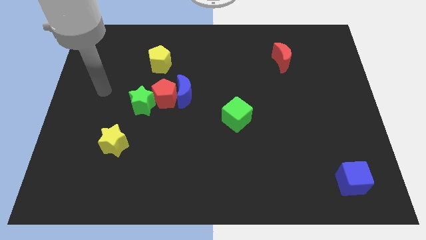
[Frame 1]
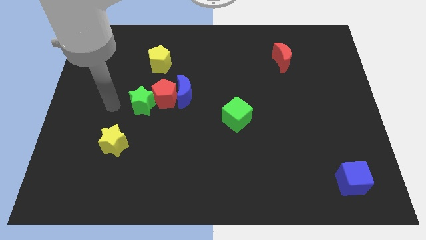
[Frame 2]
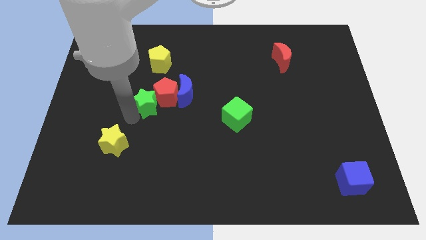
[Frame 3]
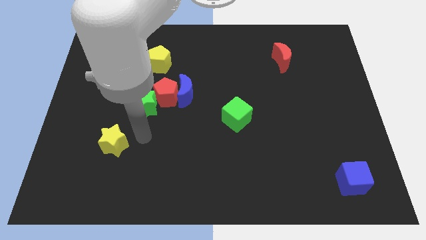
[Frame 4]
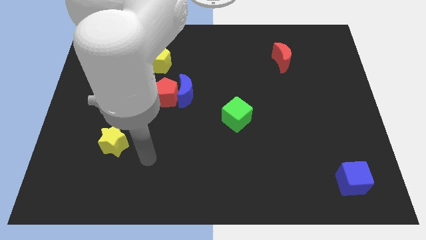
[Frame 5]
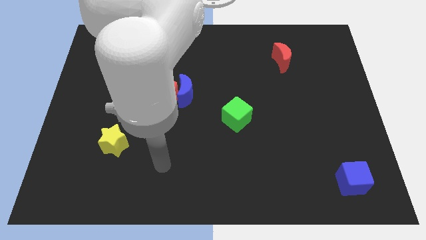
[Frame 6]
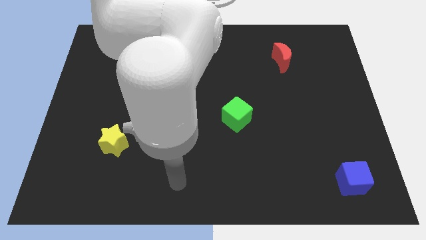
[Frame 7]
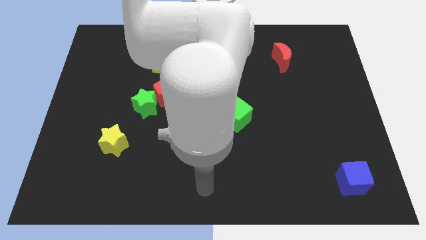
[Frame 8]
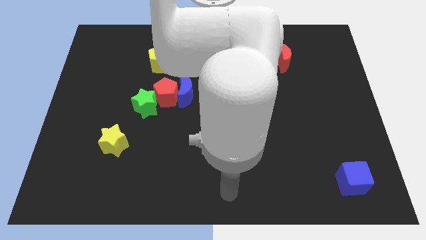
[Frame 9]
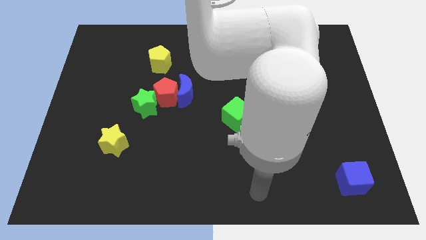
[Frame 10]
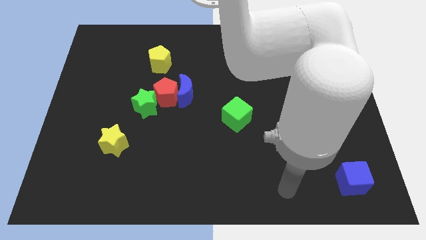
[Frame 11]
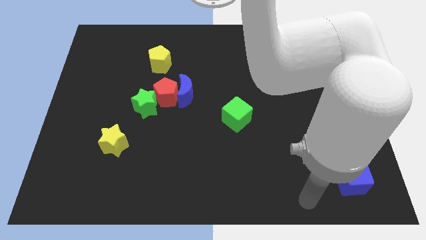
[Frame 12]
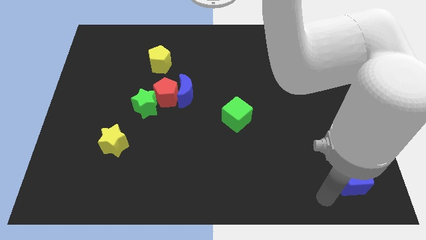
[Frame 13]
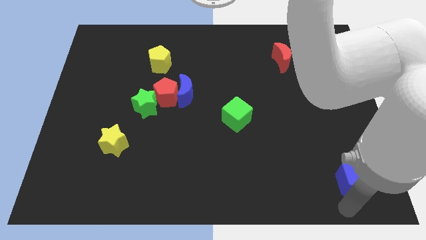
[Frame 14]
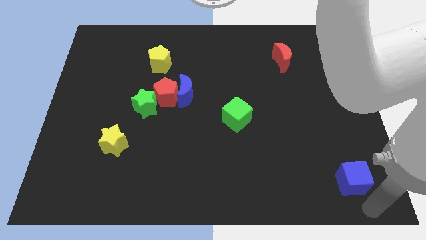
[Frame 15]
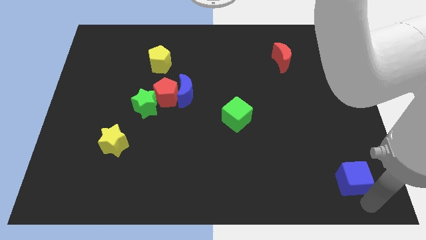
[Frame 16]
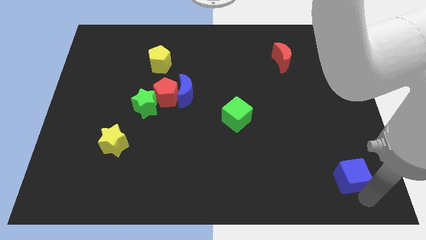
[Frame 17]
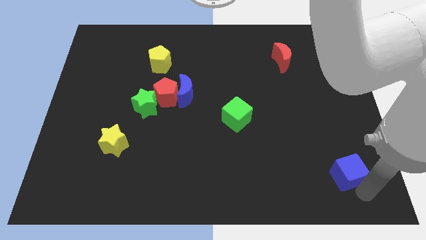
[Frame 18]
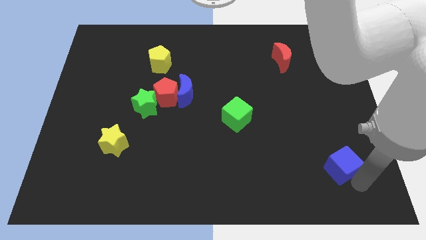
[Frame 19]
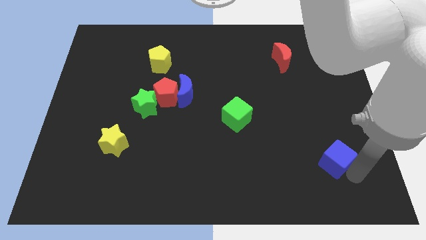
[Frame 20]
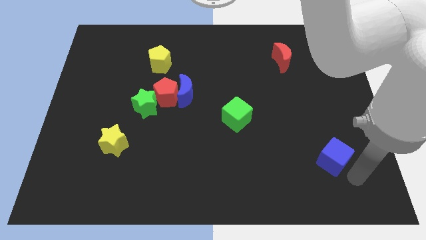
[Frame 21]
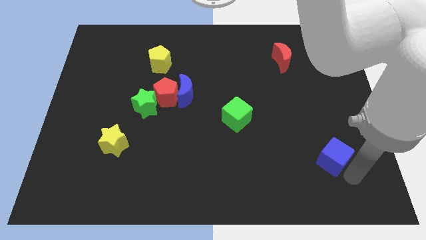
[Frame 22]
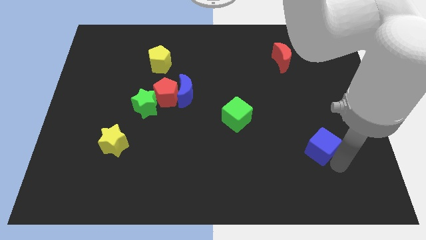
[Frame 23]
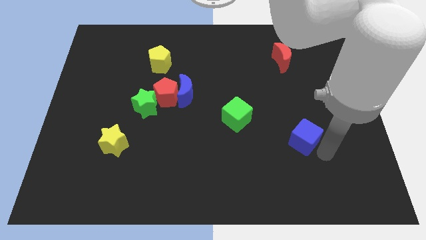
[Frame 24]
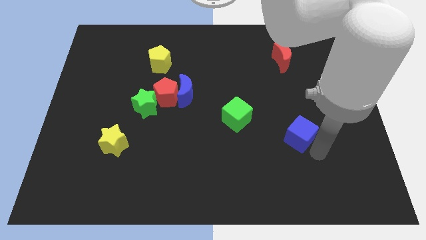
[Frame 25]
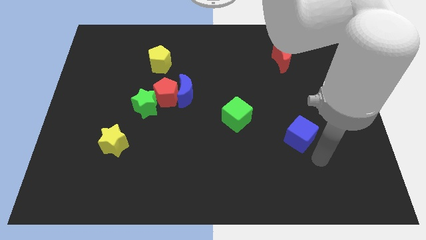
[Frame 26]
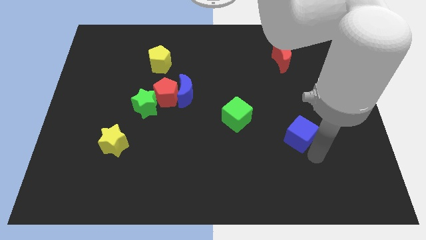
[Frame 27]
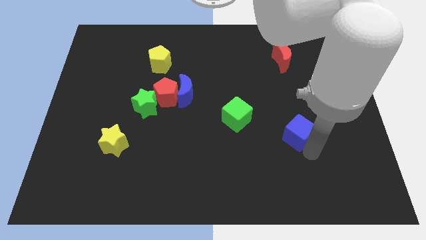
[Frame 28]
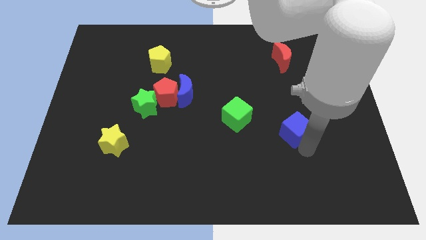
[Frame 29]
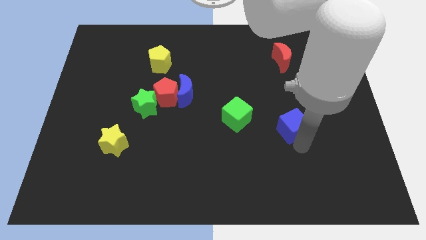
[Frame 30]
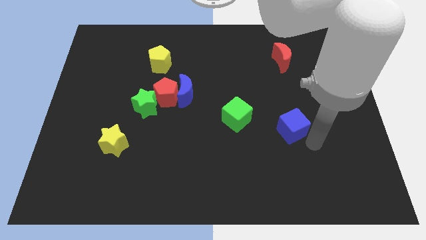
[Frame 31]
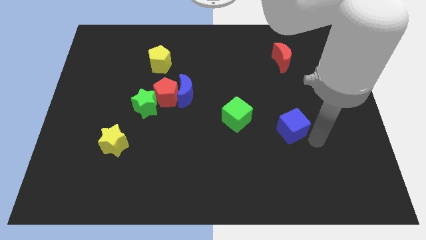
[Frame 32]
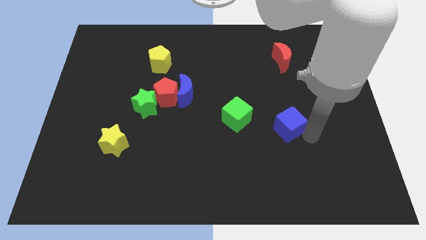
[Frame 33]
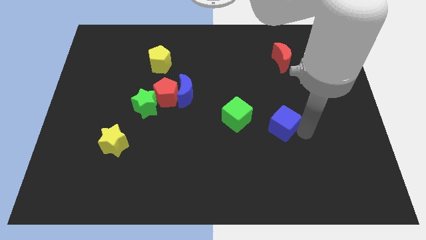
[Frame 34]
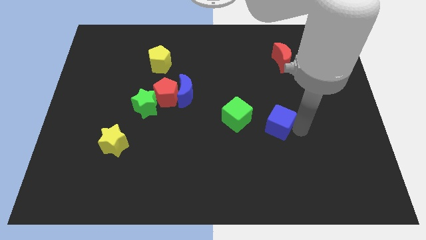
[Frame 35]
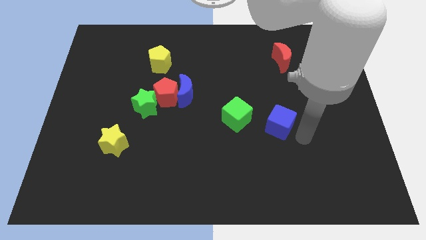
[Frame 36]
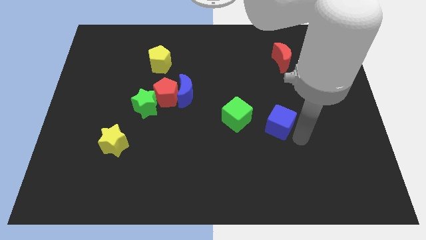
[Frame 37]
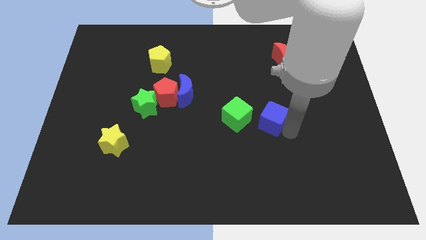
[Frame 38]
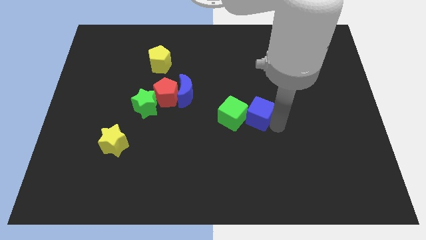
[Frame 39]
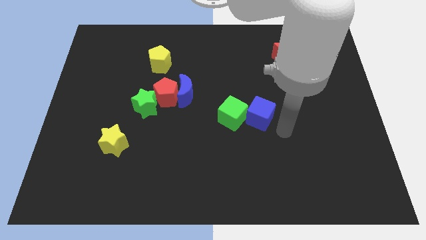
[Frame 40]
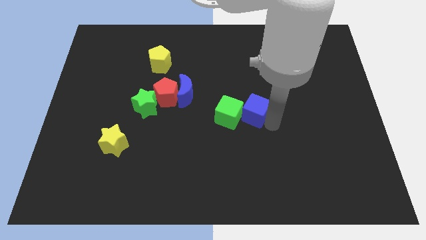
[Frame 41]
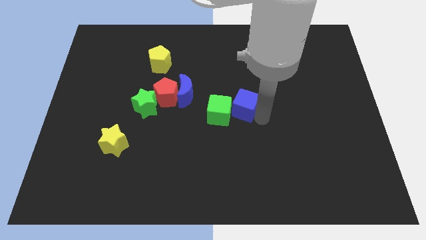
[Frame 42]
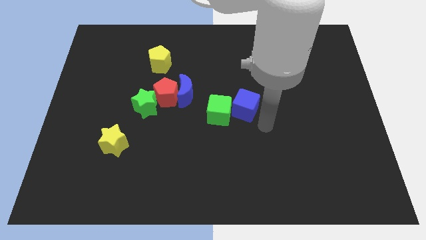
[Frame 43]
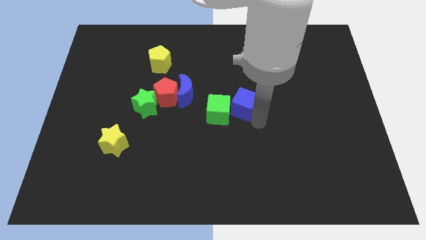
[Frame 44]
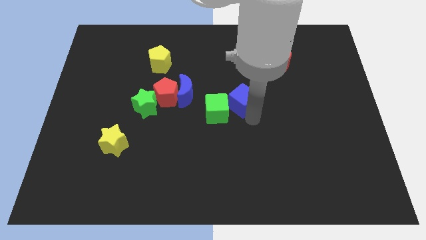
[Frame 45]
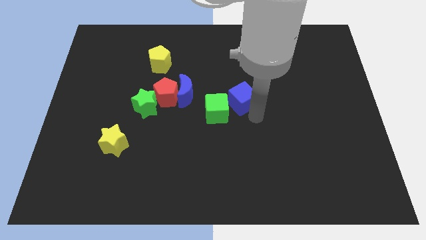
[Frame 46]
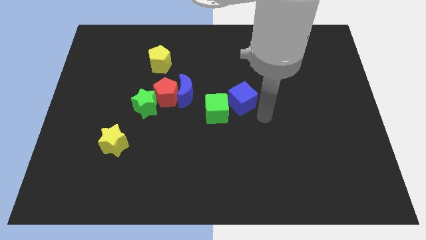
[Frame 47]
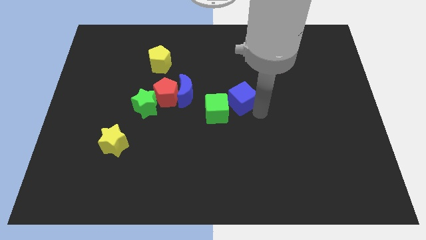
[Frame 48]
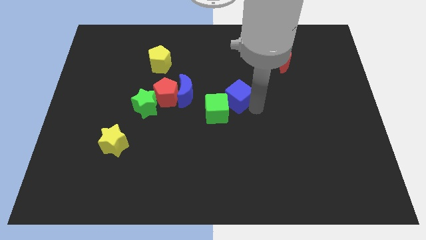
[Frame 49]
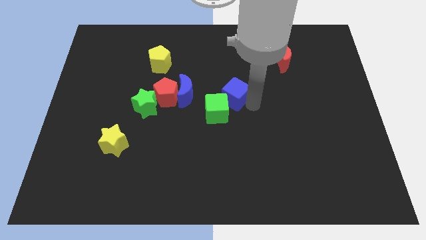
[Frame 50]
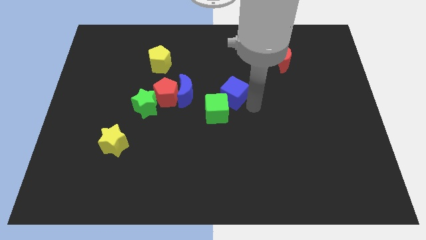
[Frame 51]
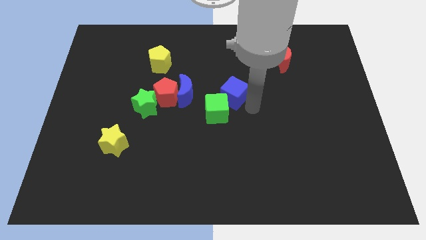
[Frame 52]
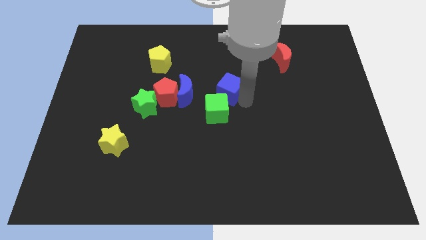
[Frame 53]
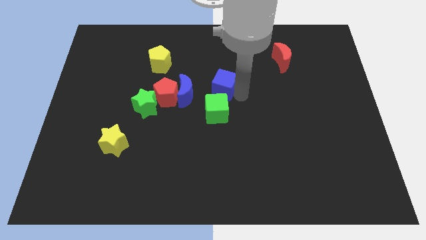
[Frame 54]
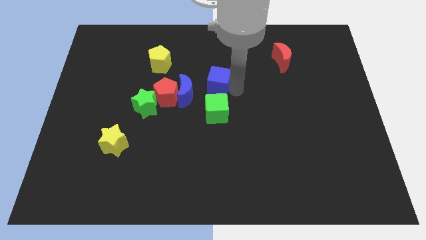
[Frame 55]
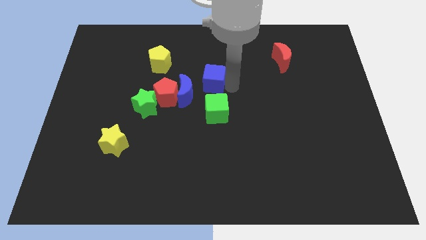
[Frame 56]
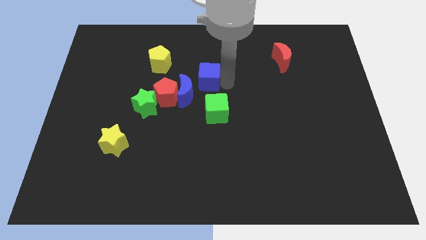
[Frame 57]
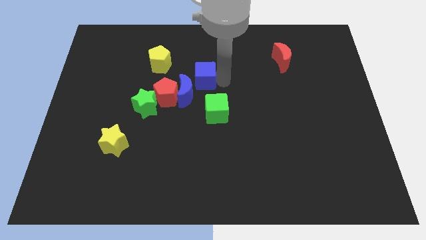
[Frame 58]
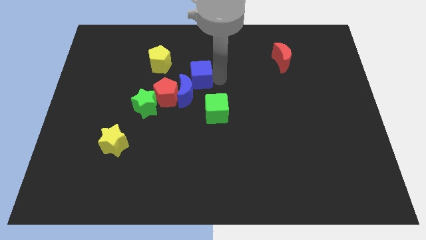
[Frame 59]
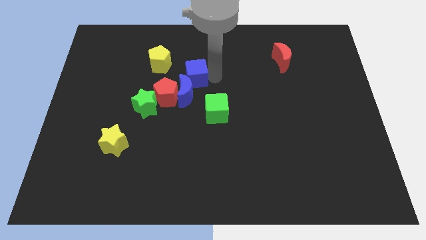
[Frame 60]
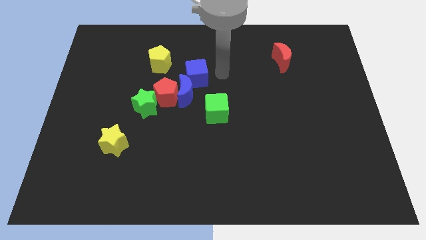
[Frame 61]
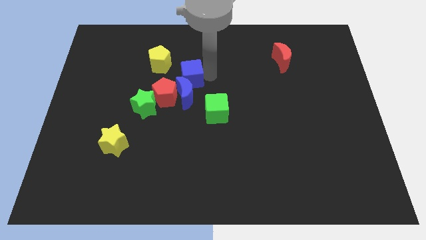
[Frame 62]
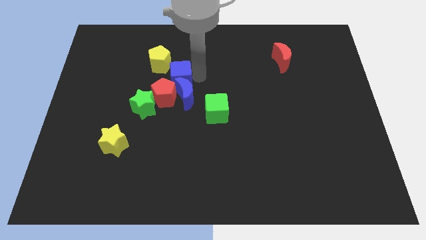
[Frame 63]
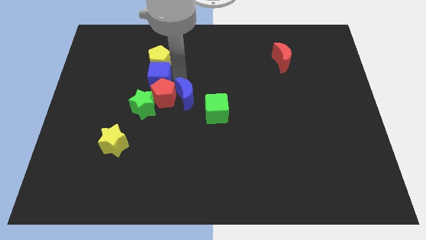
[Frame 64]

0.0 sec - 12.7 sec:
put the blue cube to the bottom left of the yellow pentagon

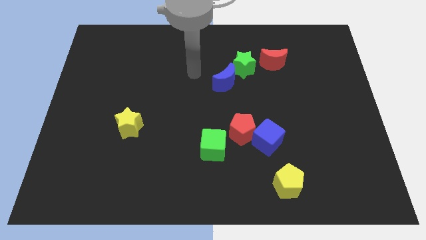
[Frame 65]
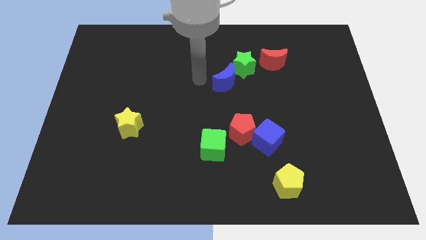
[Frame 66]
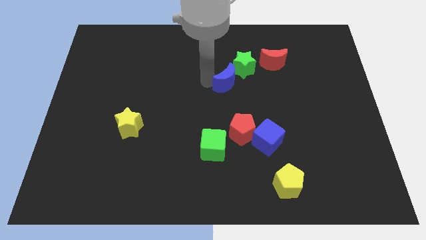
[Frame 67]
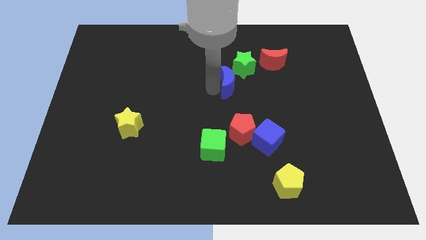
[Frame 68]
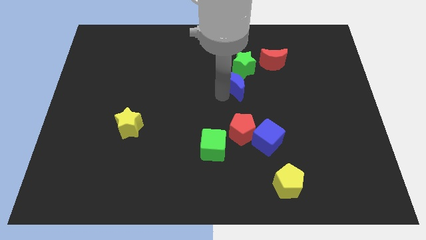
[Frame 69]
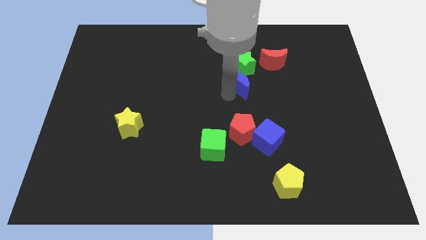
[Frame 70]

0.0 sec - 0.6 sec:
put the red moon diagonally up and to the right of the blue moon
